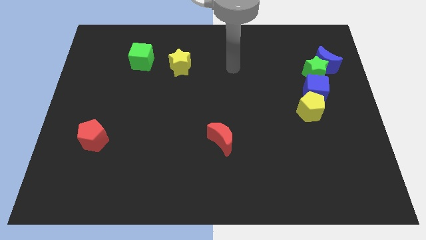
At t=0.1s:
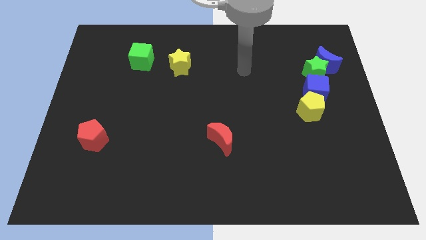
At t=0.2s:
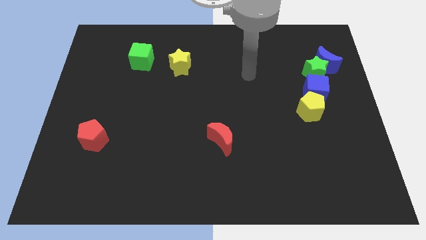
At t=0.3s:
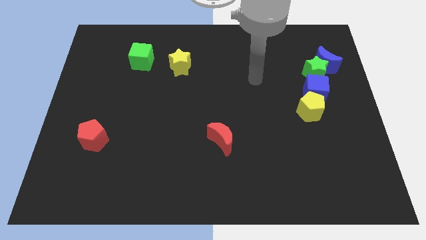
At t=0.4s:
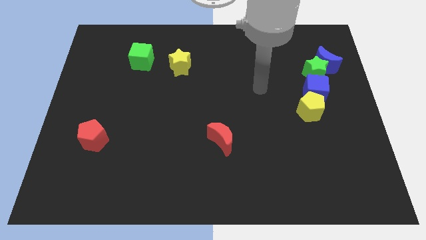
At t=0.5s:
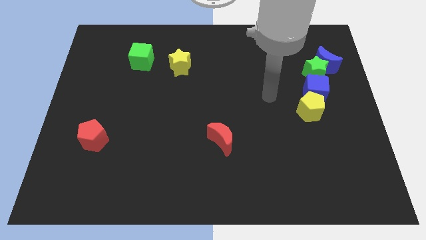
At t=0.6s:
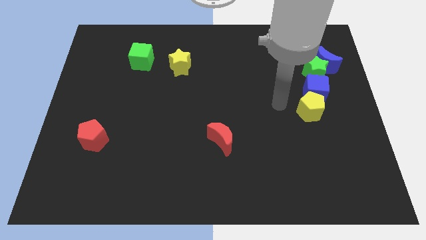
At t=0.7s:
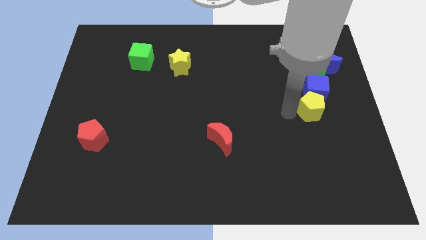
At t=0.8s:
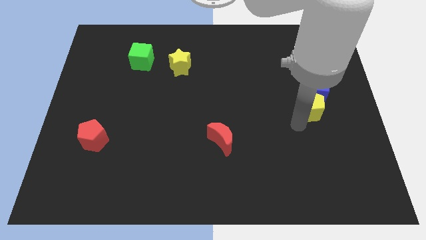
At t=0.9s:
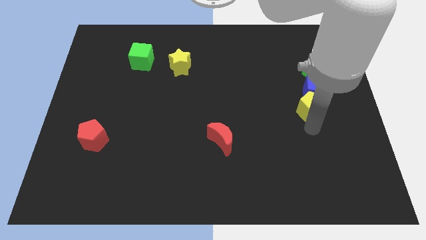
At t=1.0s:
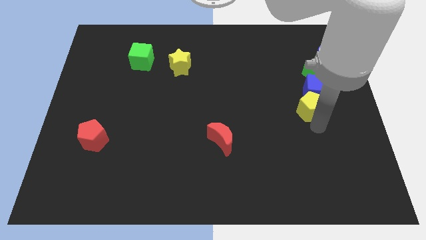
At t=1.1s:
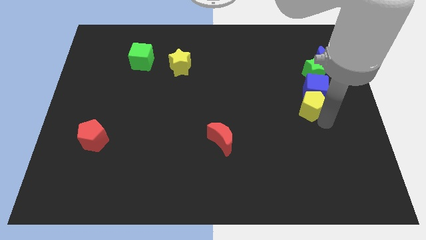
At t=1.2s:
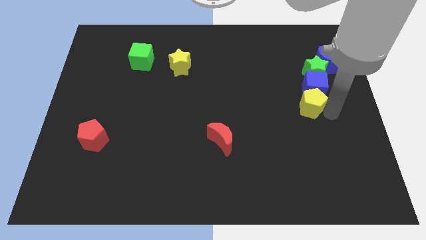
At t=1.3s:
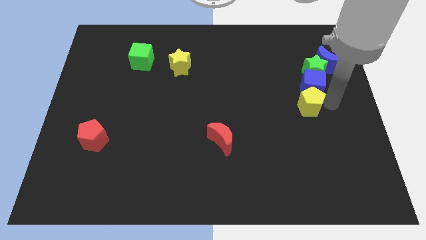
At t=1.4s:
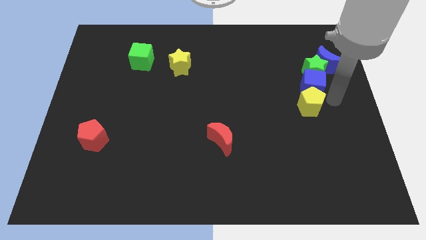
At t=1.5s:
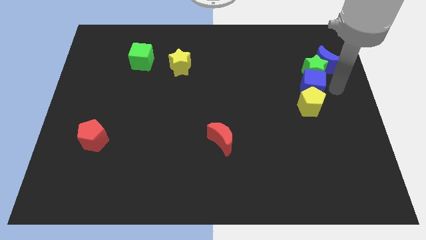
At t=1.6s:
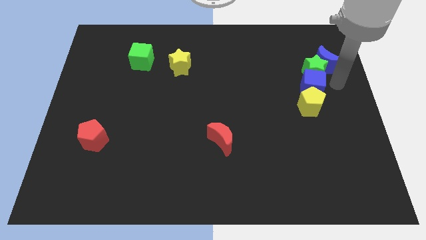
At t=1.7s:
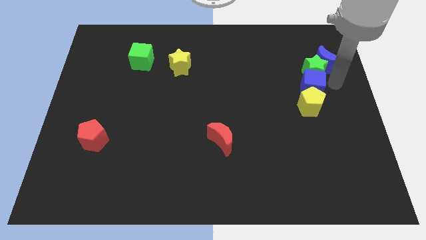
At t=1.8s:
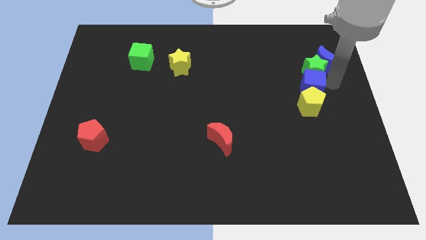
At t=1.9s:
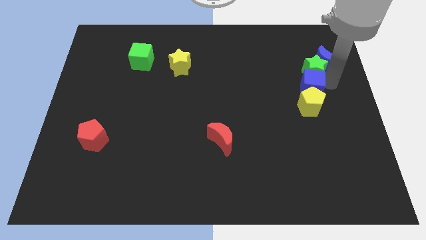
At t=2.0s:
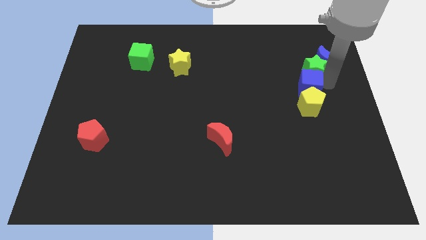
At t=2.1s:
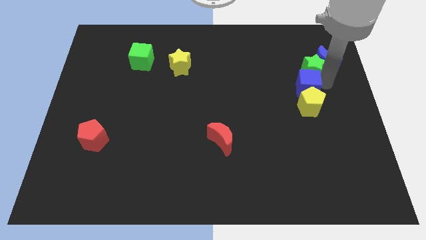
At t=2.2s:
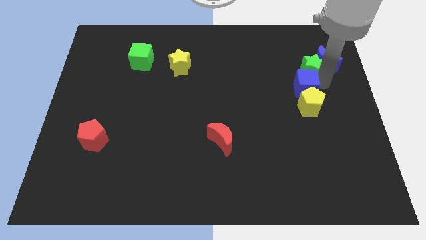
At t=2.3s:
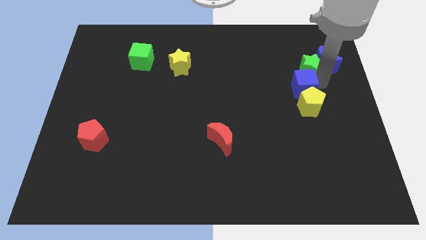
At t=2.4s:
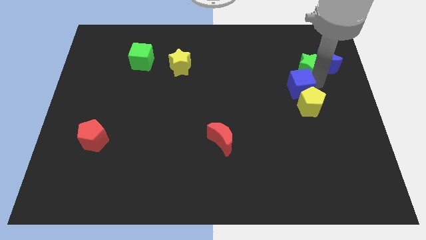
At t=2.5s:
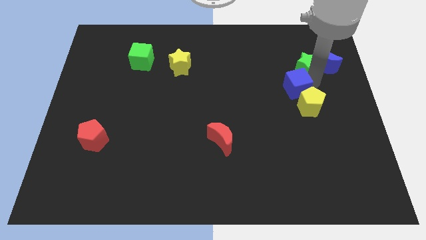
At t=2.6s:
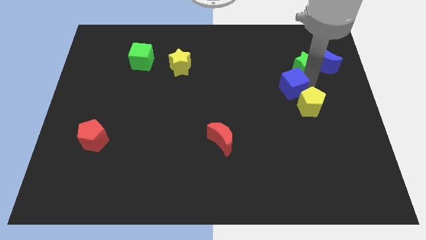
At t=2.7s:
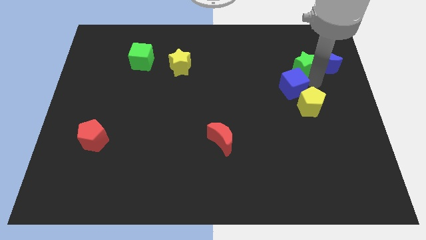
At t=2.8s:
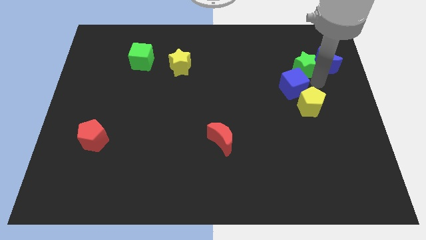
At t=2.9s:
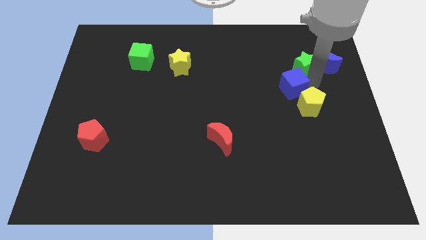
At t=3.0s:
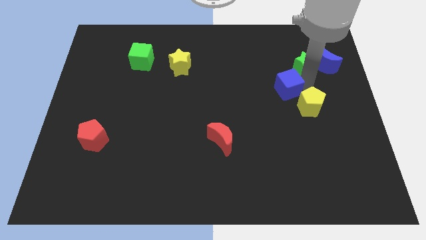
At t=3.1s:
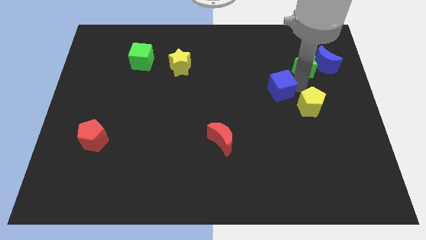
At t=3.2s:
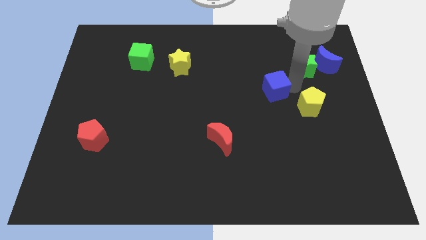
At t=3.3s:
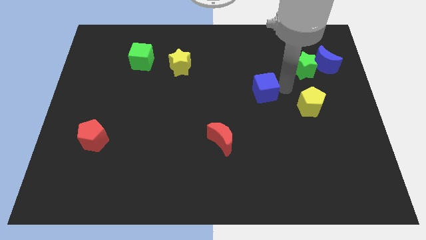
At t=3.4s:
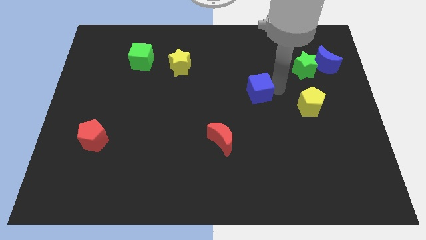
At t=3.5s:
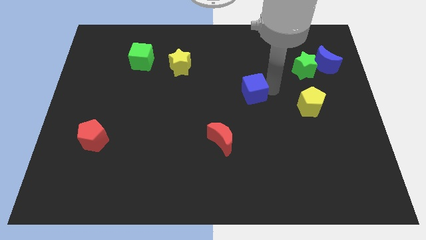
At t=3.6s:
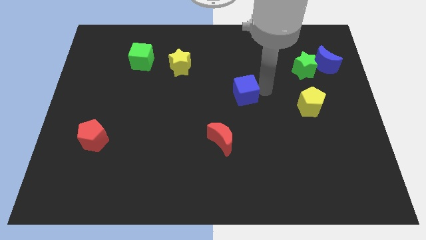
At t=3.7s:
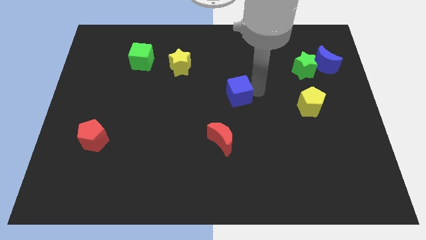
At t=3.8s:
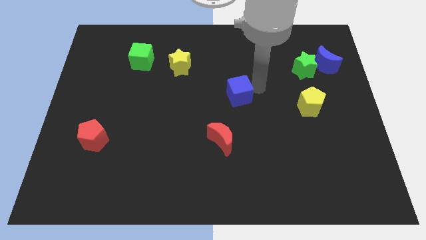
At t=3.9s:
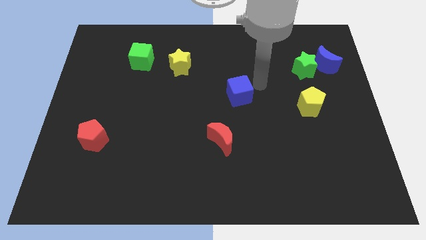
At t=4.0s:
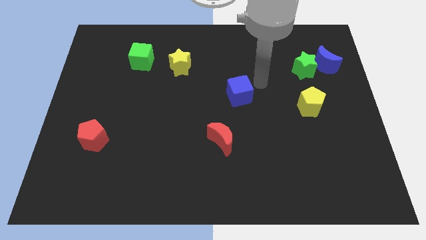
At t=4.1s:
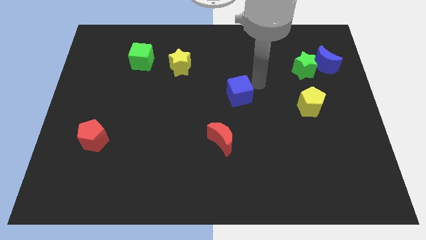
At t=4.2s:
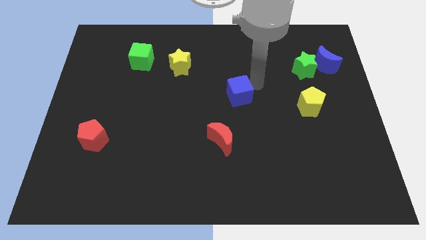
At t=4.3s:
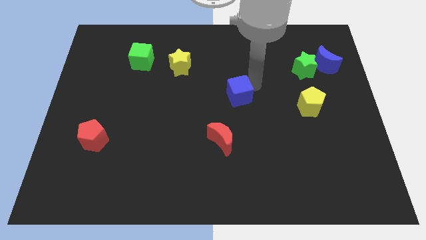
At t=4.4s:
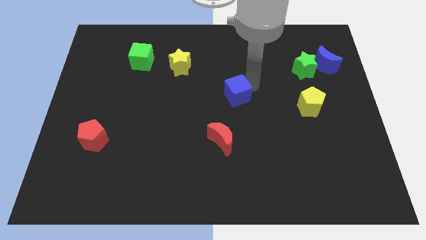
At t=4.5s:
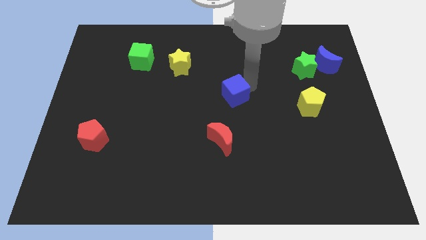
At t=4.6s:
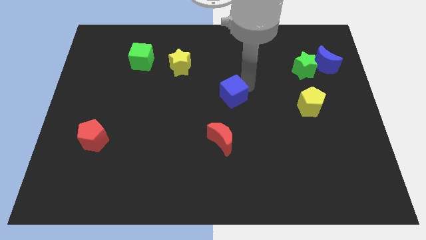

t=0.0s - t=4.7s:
push the blue cube left

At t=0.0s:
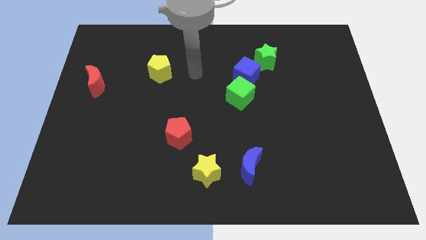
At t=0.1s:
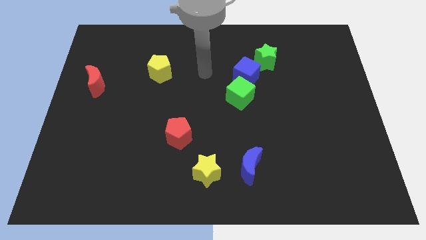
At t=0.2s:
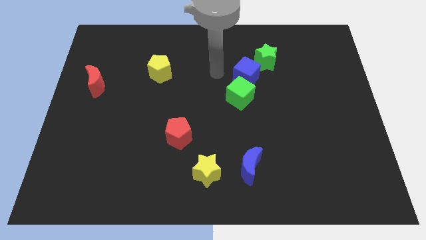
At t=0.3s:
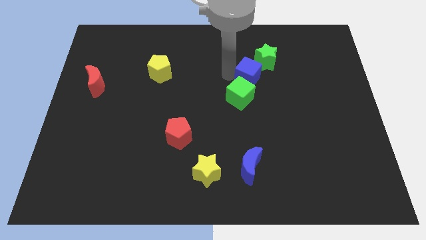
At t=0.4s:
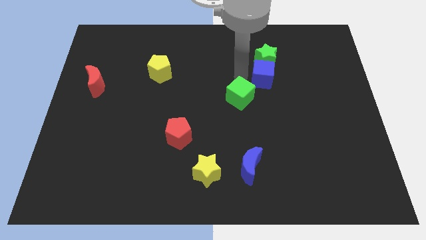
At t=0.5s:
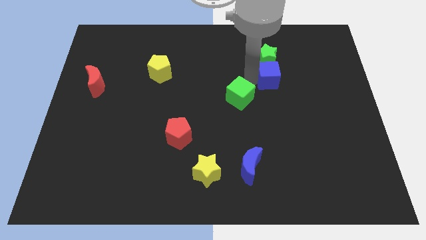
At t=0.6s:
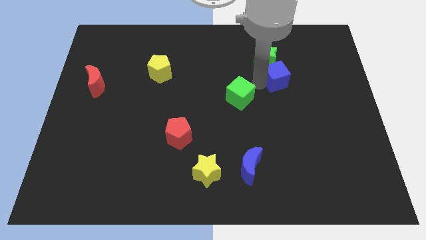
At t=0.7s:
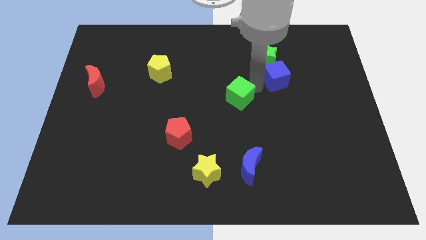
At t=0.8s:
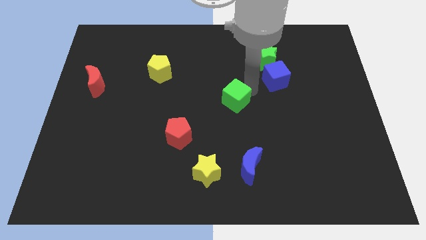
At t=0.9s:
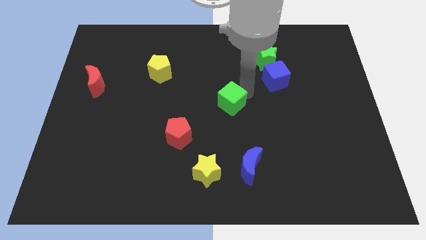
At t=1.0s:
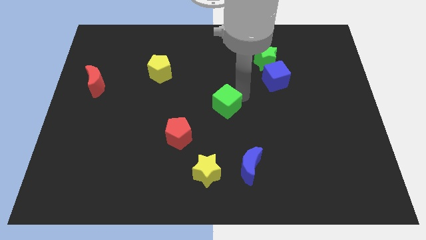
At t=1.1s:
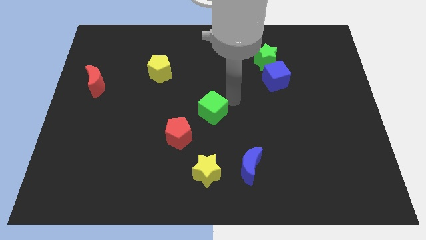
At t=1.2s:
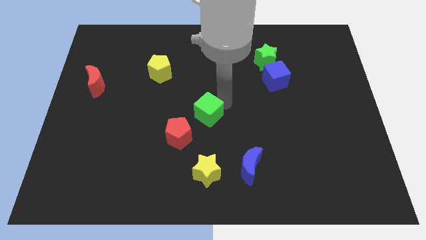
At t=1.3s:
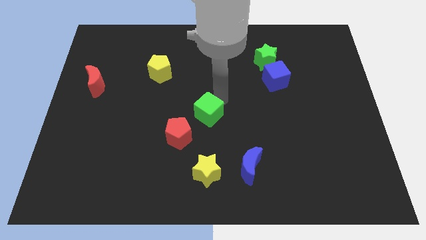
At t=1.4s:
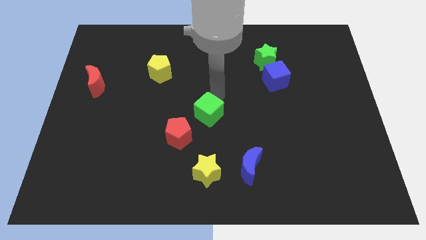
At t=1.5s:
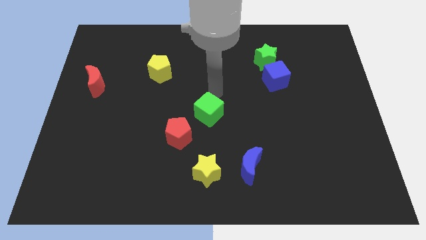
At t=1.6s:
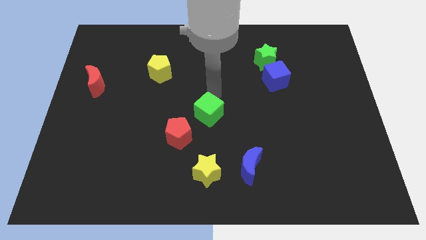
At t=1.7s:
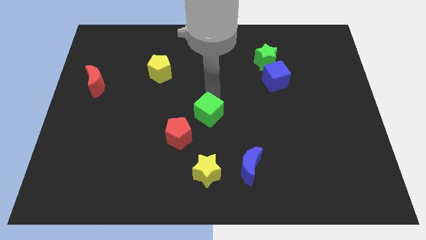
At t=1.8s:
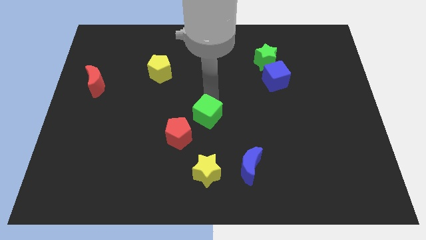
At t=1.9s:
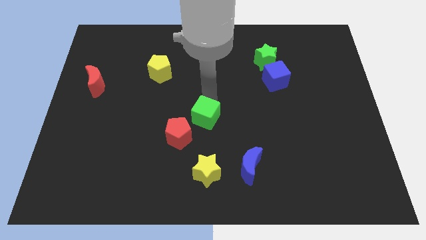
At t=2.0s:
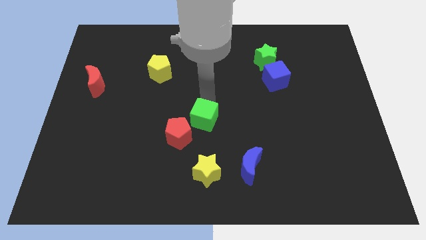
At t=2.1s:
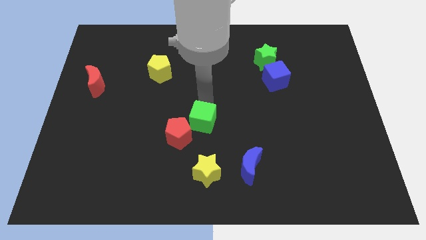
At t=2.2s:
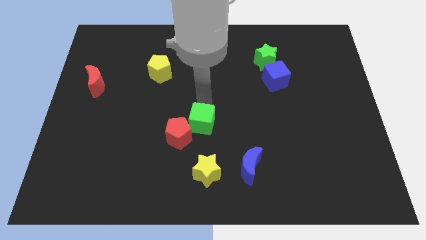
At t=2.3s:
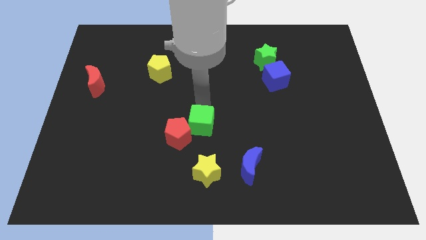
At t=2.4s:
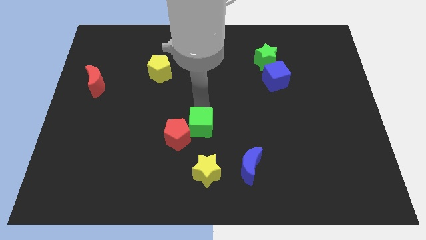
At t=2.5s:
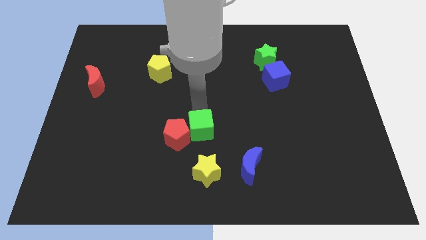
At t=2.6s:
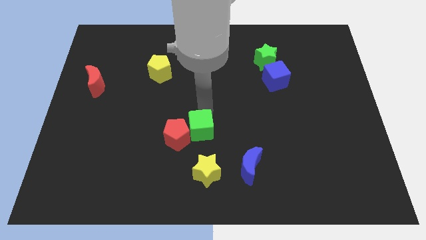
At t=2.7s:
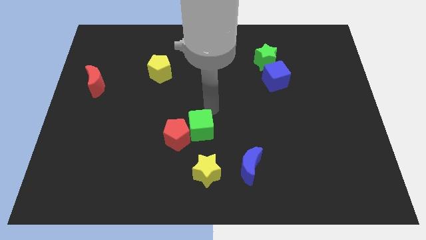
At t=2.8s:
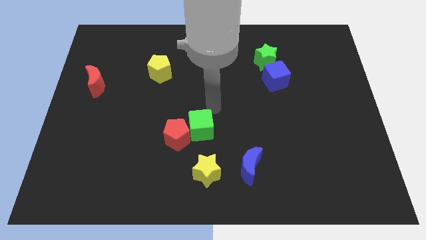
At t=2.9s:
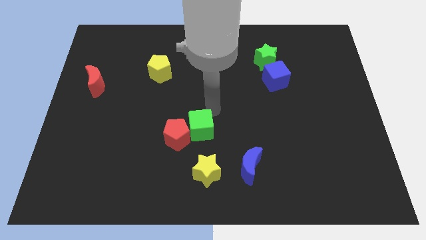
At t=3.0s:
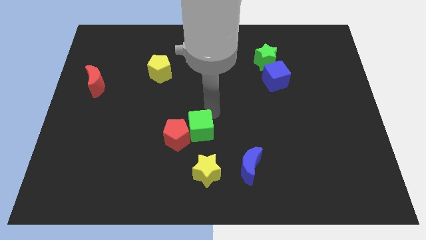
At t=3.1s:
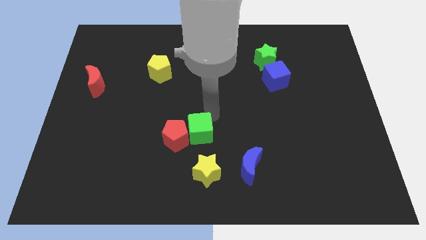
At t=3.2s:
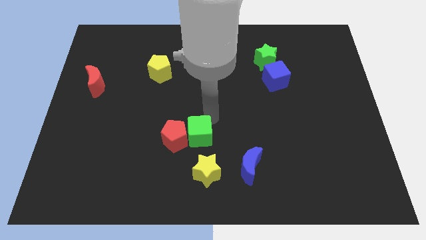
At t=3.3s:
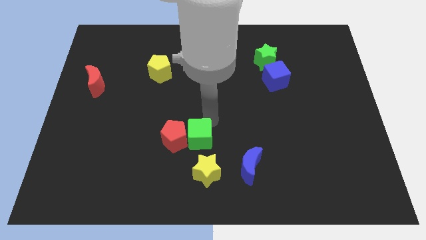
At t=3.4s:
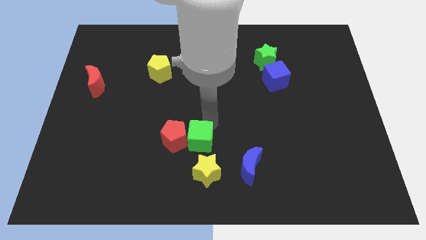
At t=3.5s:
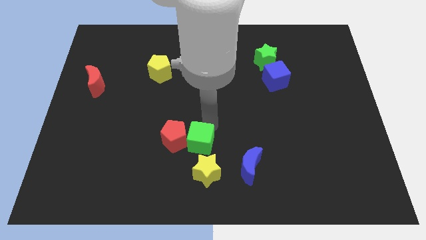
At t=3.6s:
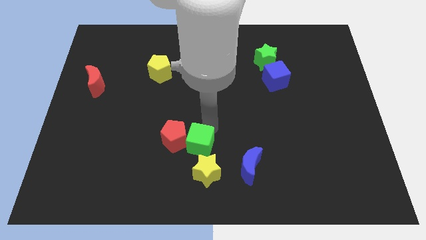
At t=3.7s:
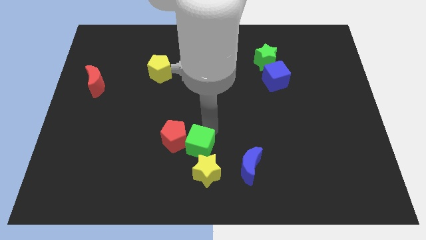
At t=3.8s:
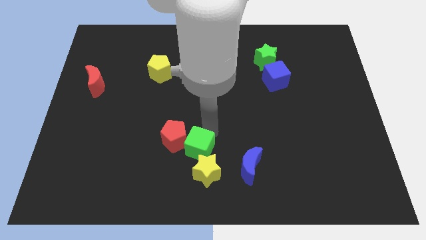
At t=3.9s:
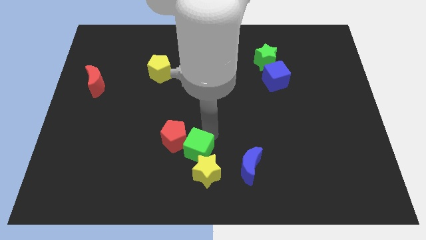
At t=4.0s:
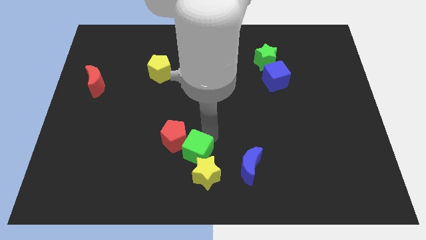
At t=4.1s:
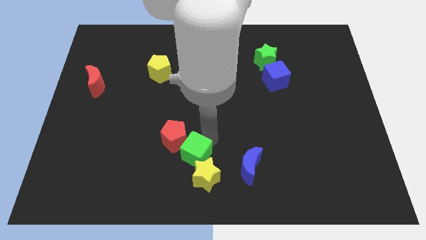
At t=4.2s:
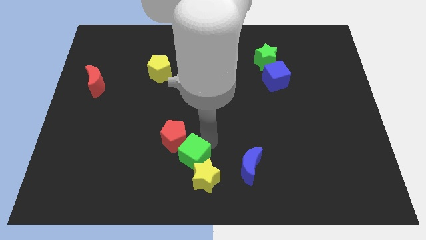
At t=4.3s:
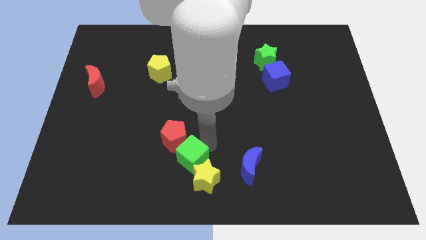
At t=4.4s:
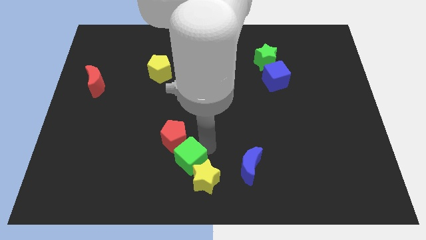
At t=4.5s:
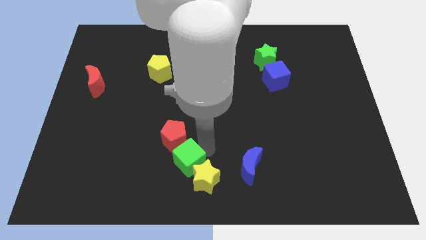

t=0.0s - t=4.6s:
move the green cube diagonally down and left
